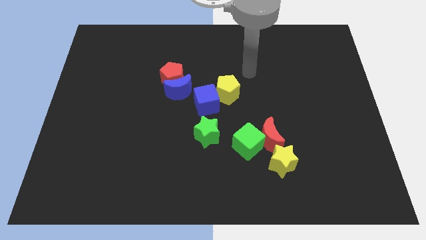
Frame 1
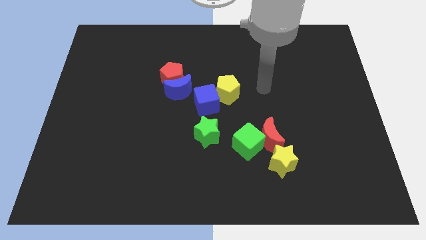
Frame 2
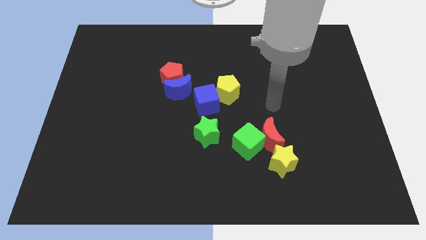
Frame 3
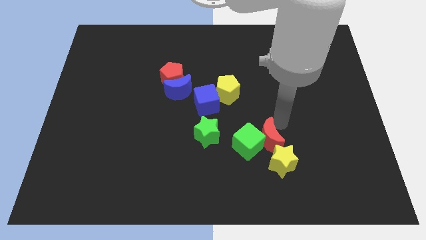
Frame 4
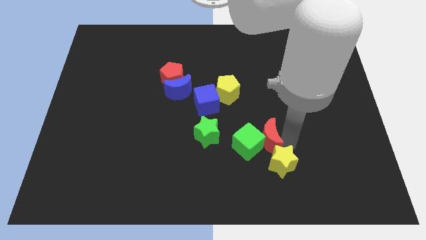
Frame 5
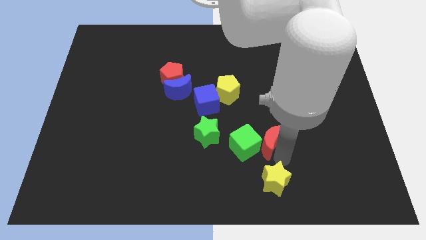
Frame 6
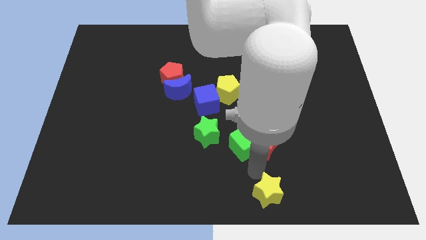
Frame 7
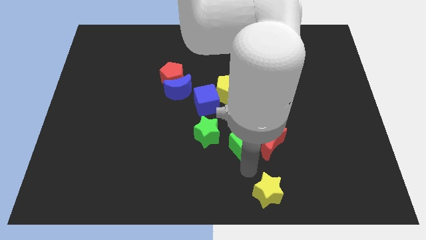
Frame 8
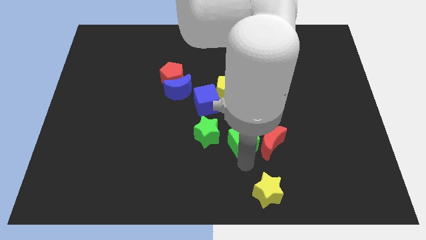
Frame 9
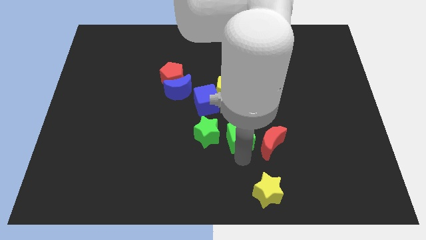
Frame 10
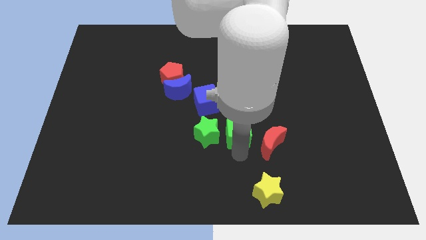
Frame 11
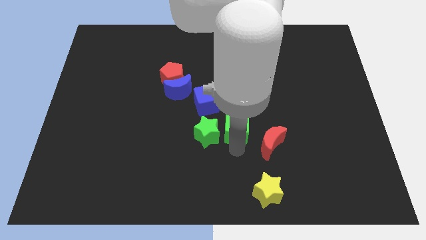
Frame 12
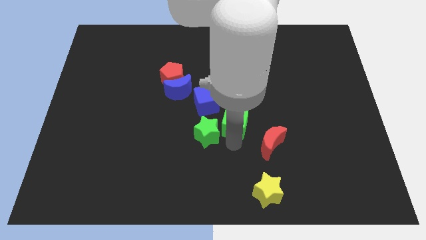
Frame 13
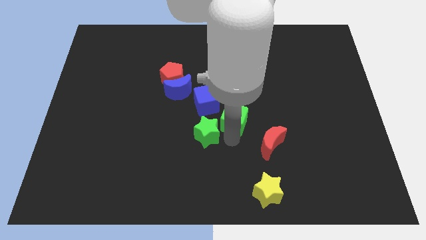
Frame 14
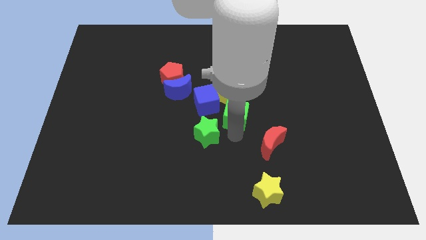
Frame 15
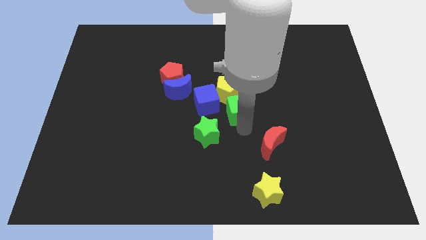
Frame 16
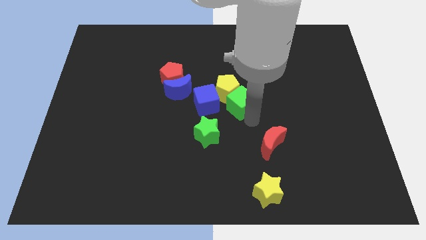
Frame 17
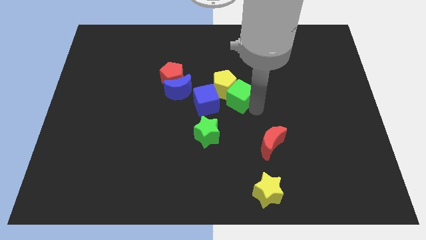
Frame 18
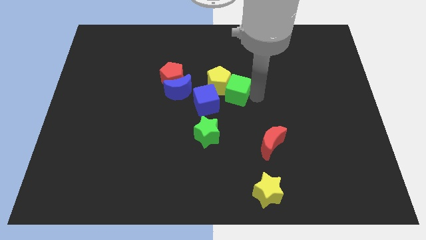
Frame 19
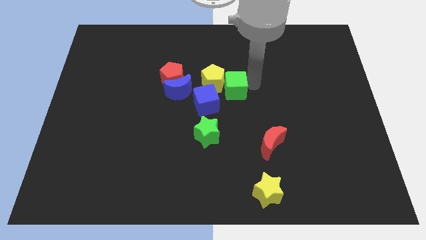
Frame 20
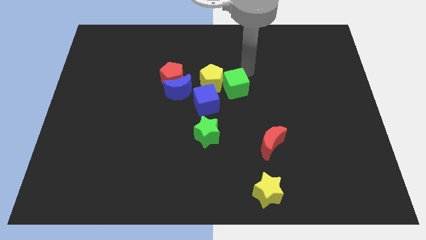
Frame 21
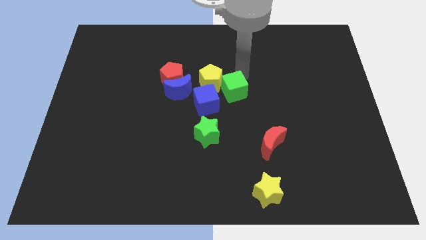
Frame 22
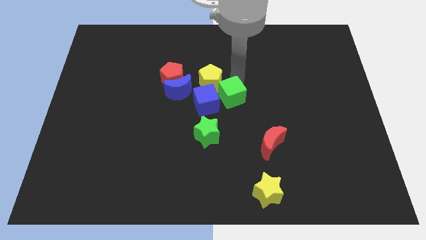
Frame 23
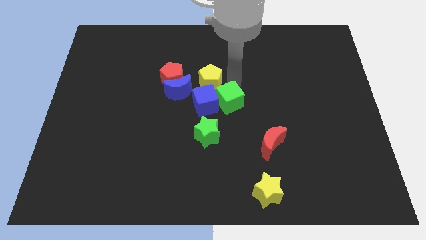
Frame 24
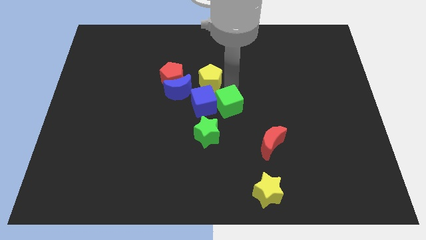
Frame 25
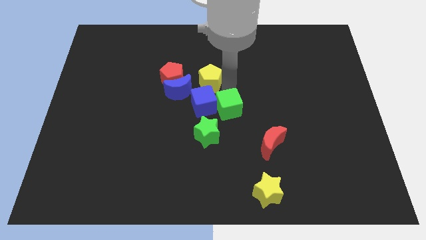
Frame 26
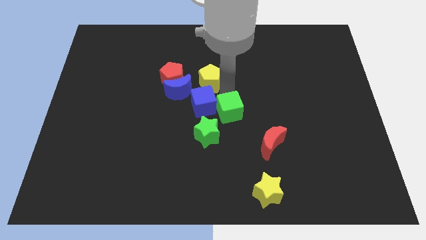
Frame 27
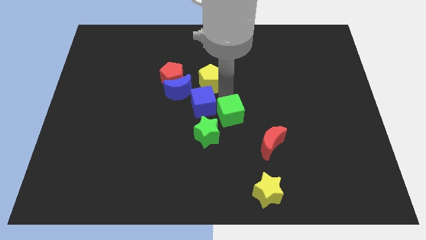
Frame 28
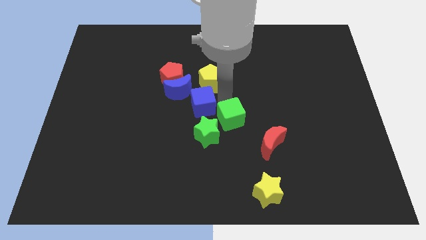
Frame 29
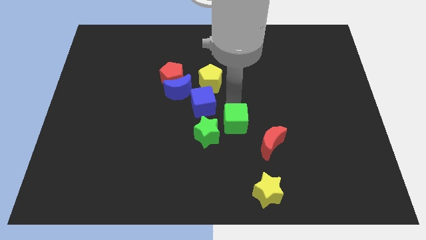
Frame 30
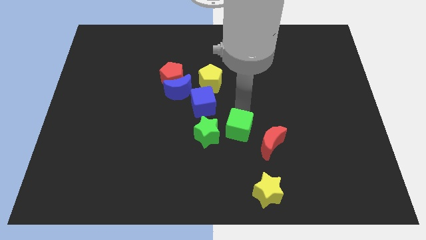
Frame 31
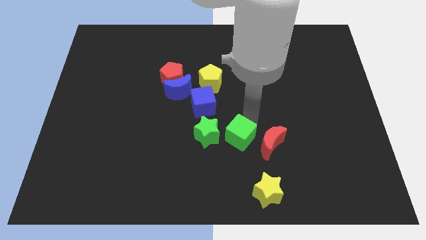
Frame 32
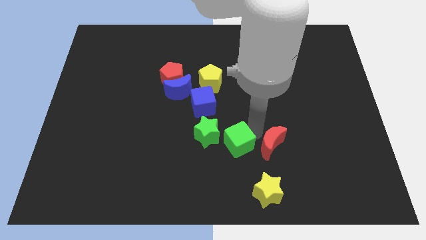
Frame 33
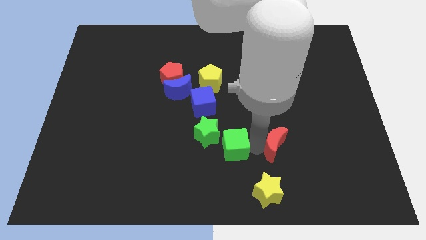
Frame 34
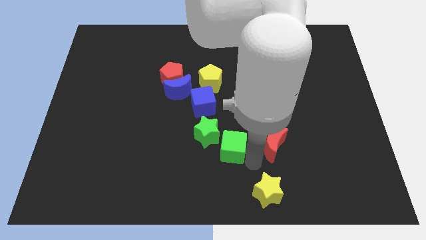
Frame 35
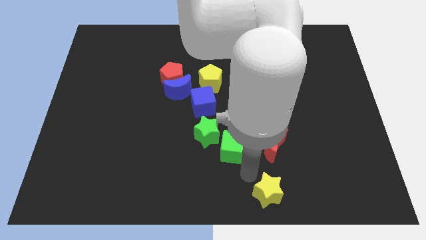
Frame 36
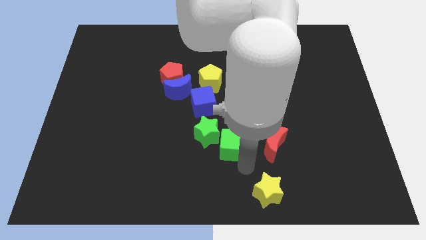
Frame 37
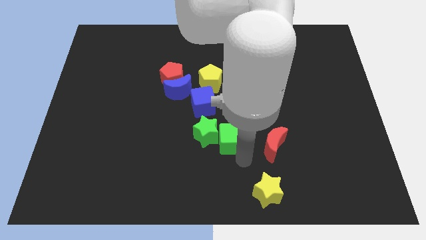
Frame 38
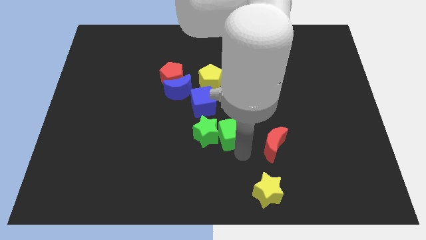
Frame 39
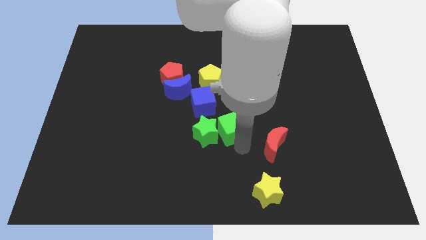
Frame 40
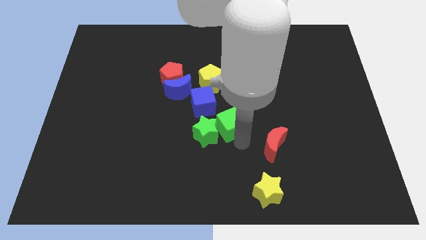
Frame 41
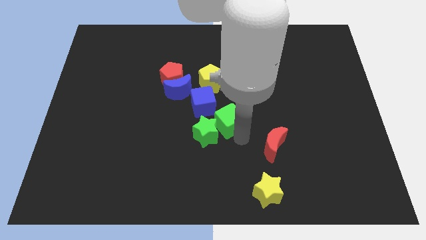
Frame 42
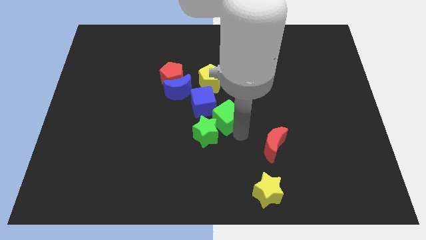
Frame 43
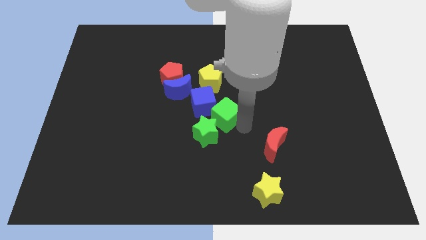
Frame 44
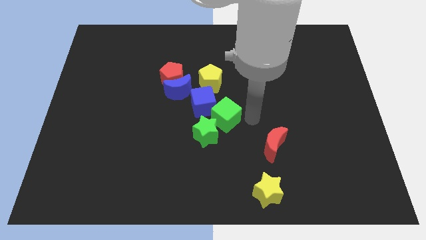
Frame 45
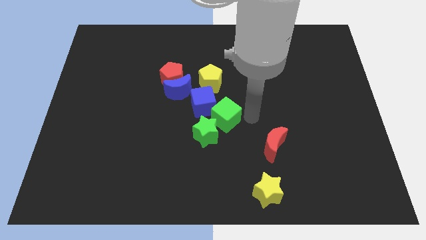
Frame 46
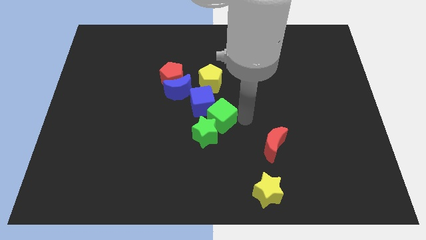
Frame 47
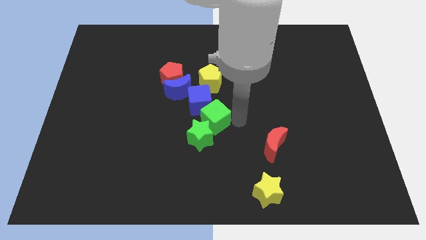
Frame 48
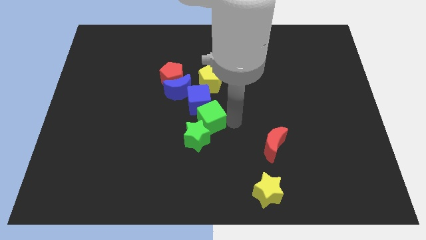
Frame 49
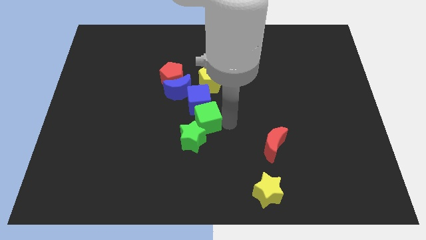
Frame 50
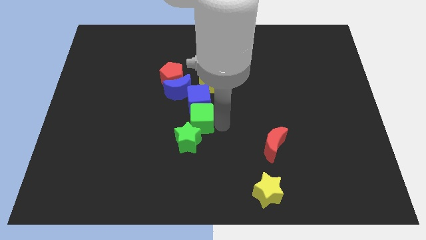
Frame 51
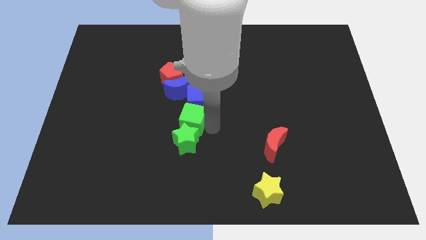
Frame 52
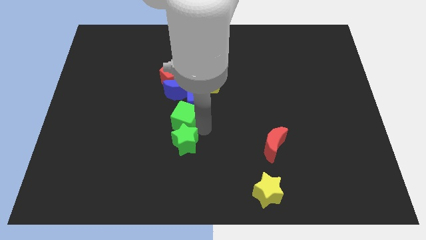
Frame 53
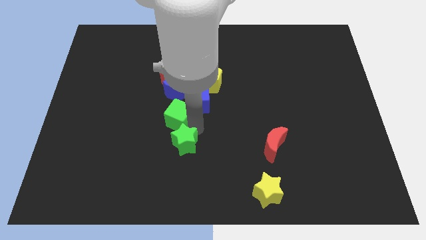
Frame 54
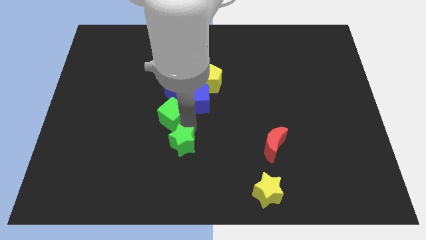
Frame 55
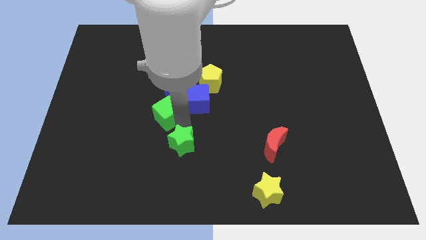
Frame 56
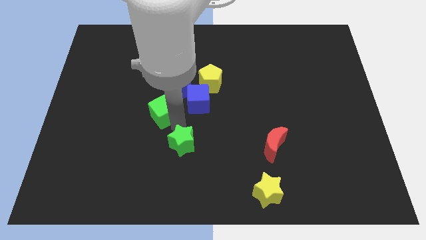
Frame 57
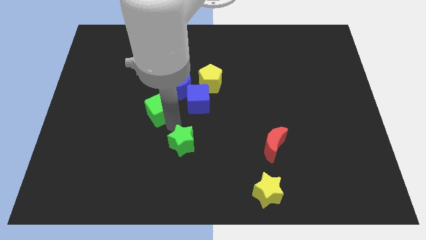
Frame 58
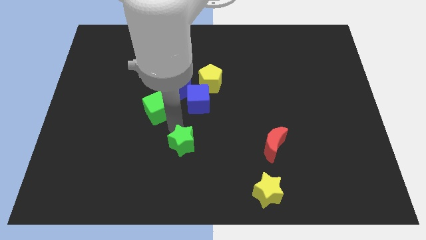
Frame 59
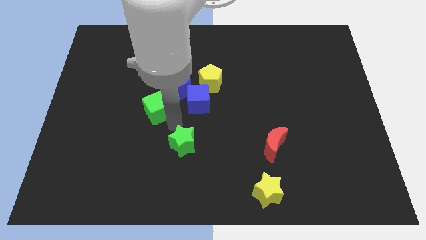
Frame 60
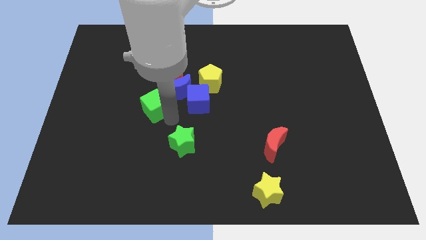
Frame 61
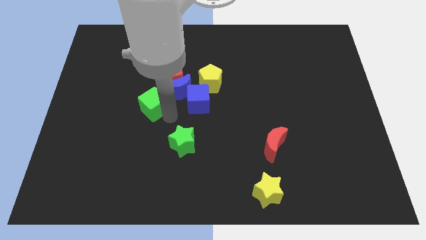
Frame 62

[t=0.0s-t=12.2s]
slide the green cube to the left side of the blue moon

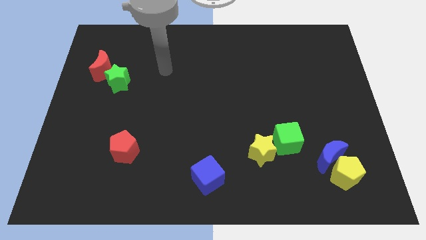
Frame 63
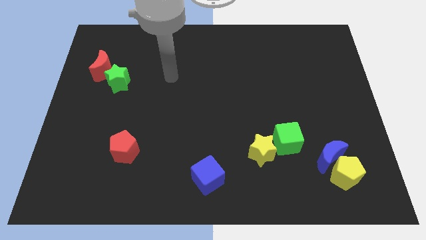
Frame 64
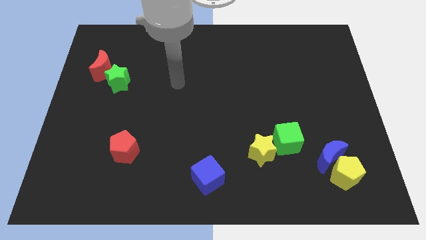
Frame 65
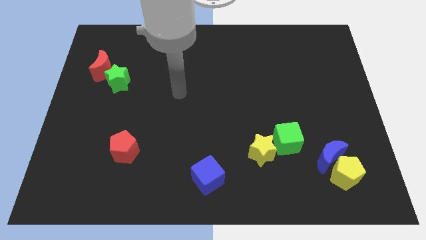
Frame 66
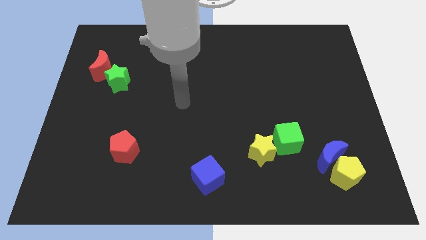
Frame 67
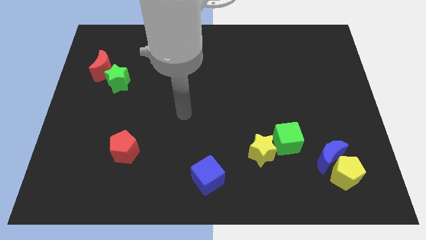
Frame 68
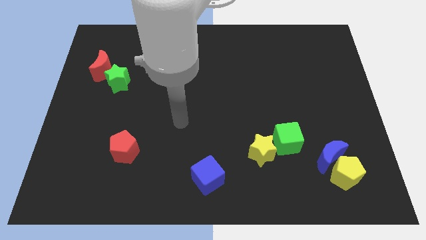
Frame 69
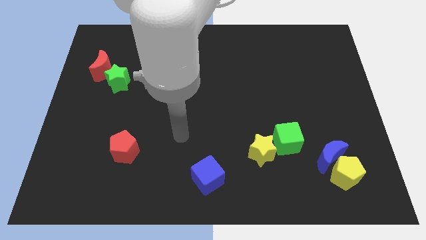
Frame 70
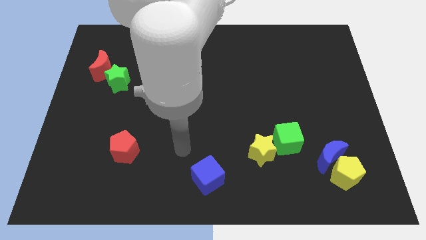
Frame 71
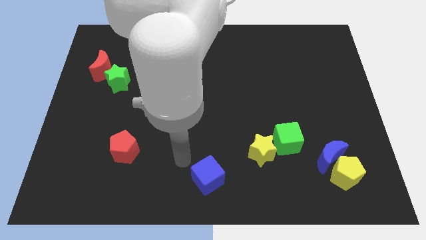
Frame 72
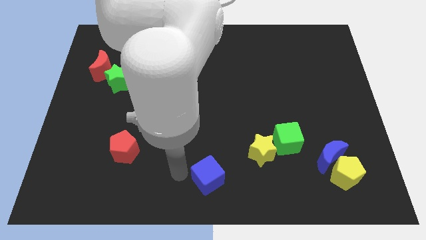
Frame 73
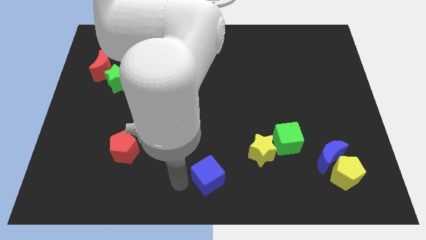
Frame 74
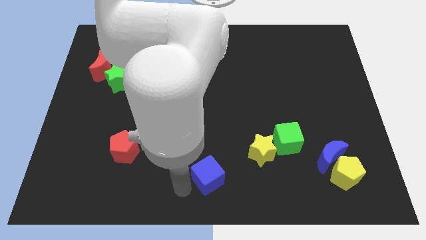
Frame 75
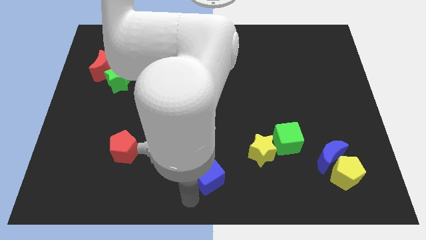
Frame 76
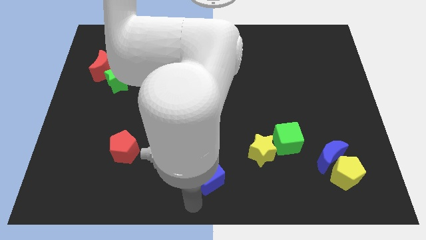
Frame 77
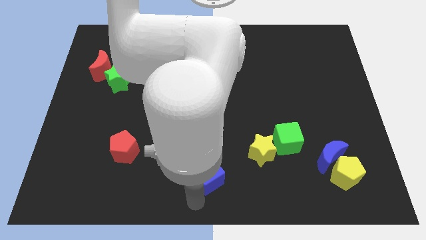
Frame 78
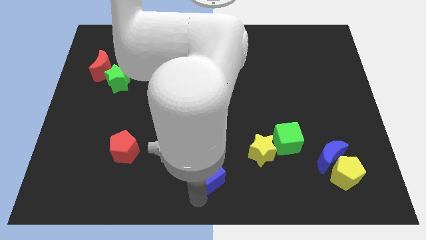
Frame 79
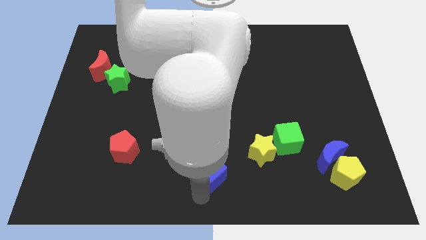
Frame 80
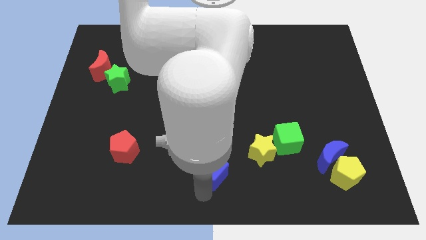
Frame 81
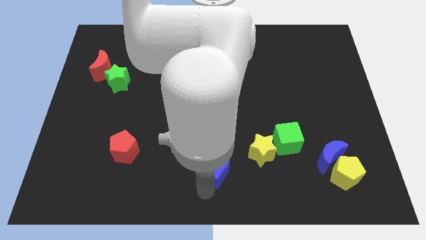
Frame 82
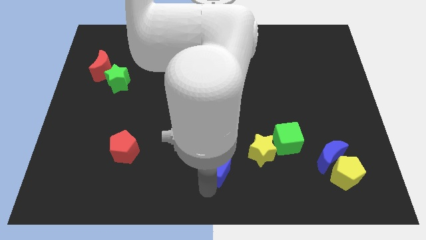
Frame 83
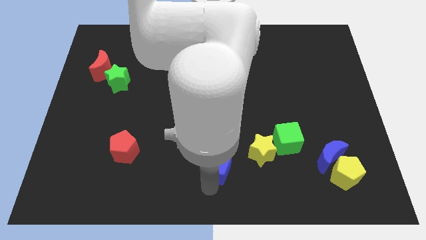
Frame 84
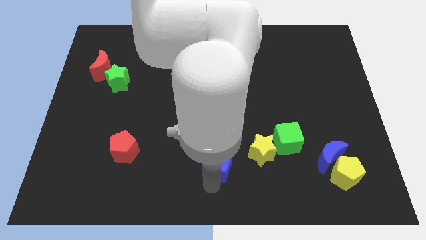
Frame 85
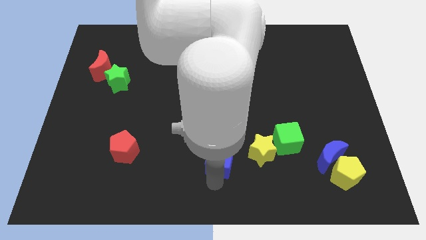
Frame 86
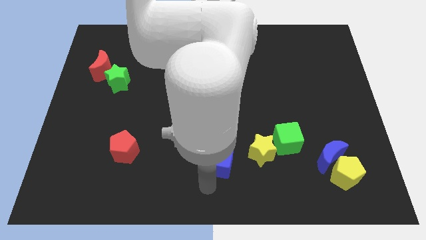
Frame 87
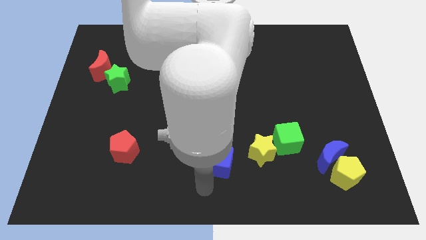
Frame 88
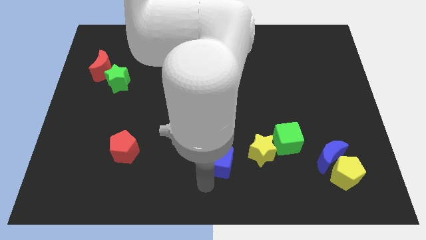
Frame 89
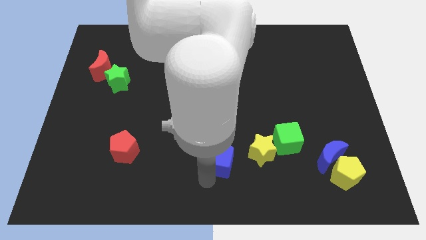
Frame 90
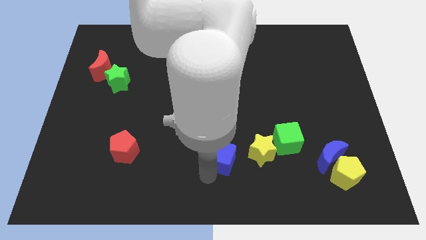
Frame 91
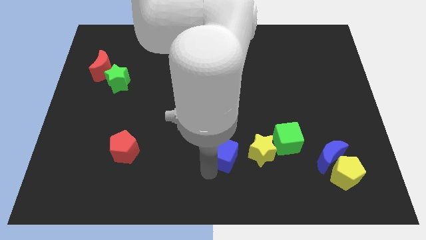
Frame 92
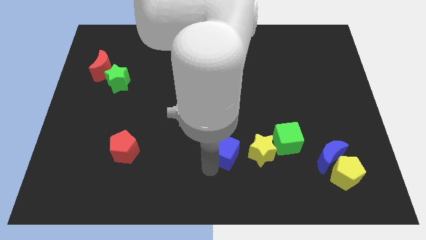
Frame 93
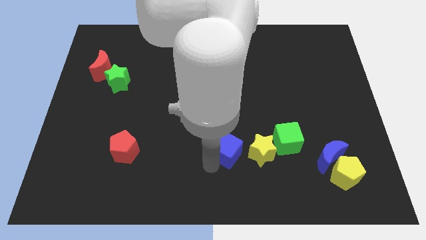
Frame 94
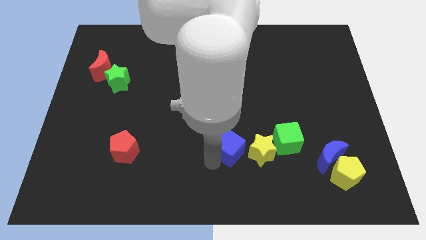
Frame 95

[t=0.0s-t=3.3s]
put the blue cube diagonally up and to the left of the yellow star
